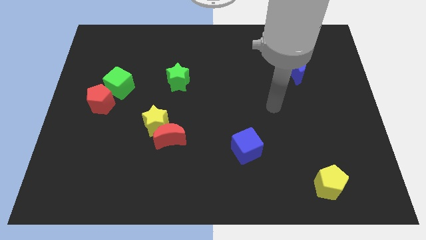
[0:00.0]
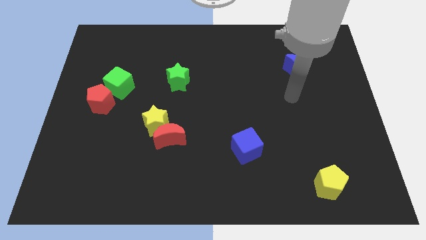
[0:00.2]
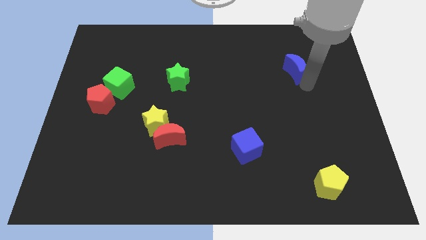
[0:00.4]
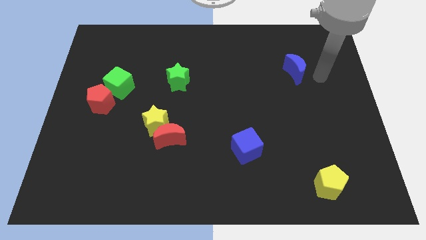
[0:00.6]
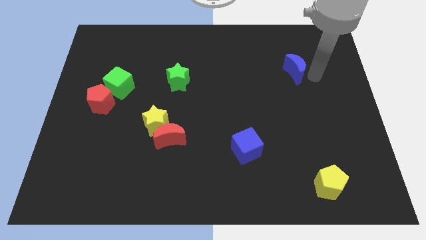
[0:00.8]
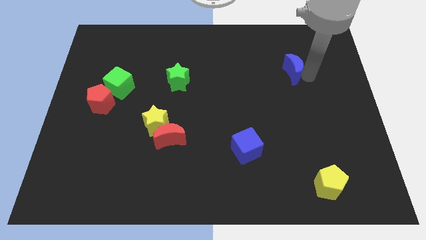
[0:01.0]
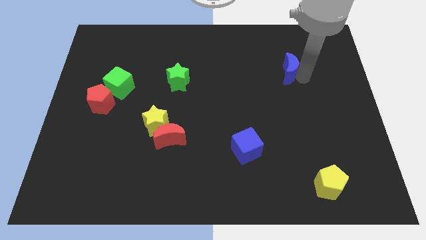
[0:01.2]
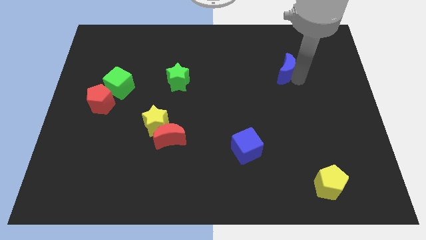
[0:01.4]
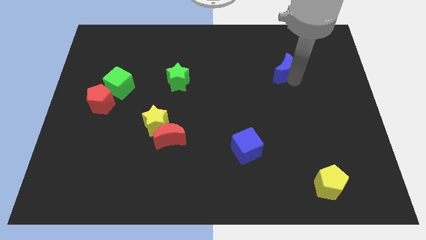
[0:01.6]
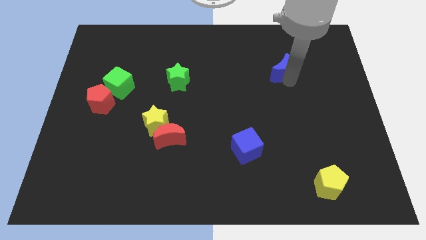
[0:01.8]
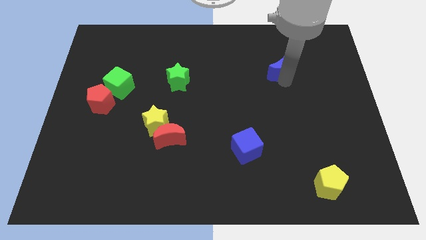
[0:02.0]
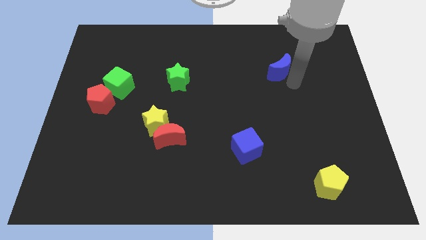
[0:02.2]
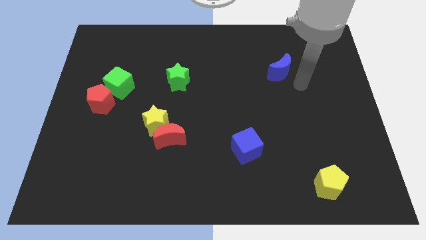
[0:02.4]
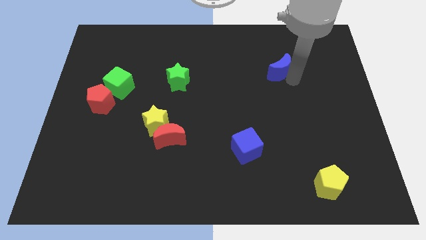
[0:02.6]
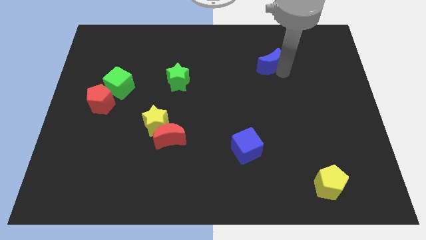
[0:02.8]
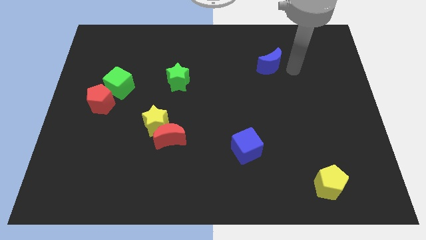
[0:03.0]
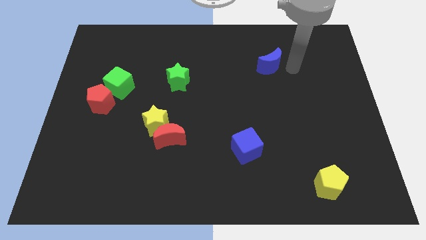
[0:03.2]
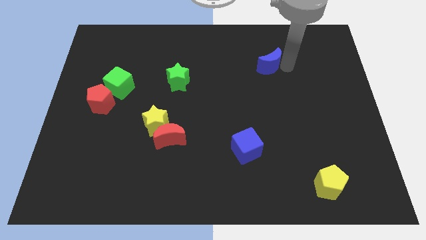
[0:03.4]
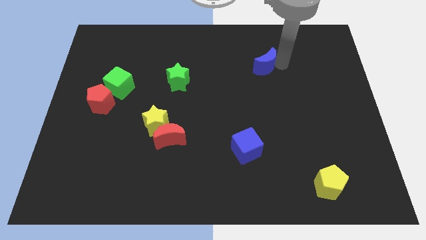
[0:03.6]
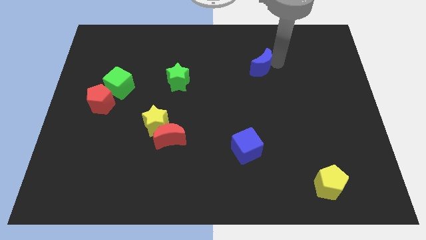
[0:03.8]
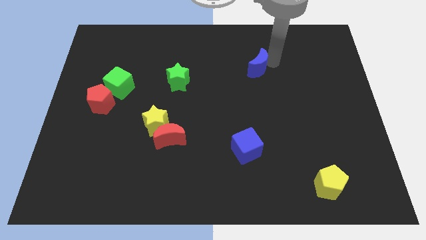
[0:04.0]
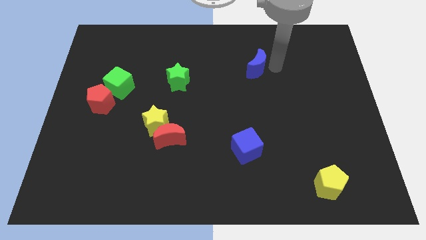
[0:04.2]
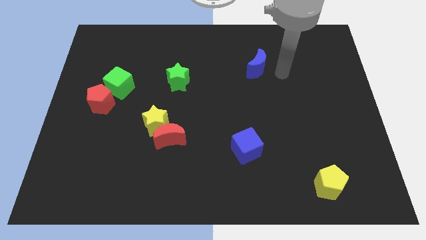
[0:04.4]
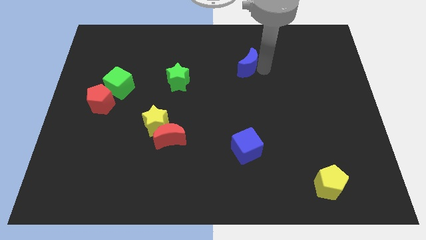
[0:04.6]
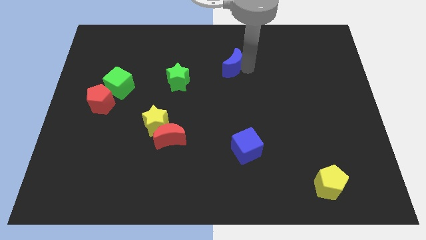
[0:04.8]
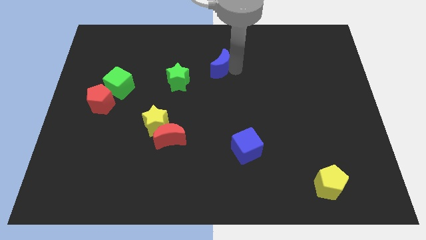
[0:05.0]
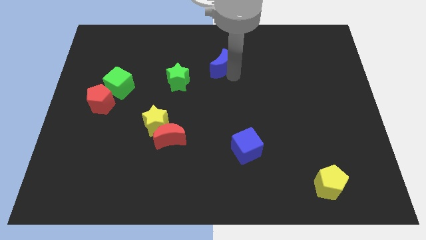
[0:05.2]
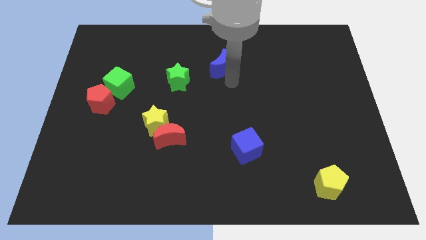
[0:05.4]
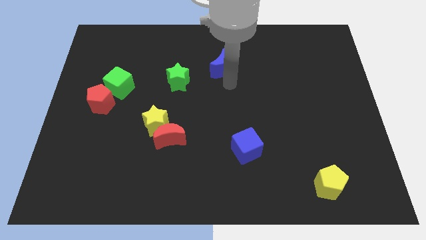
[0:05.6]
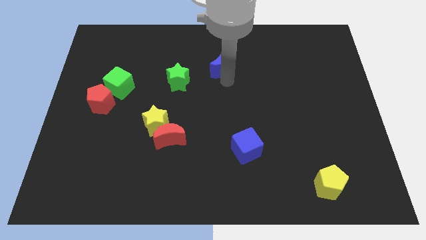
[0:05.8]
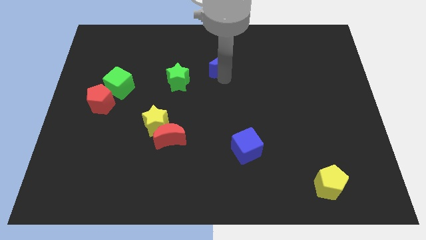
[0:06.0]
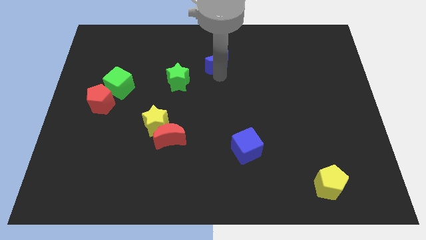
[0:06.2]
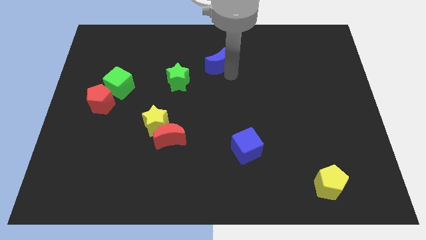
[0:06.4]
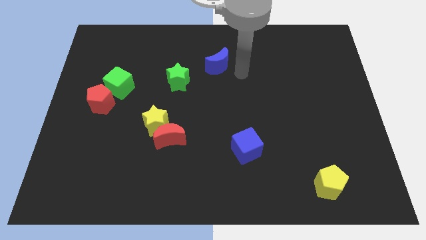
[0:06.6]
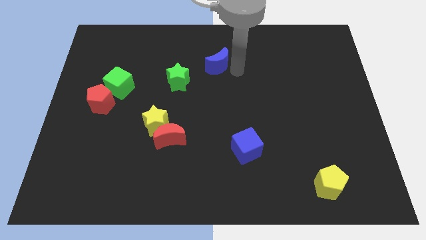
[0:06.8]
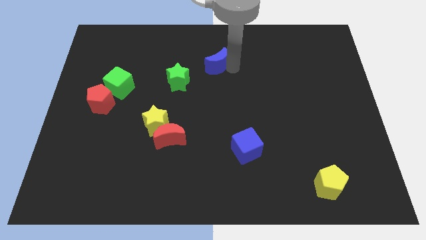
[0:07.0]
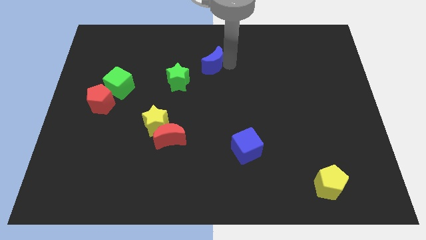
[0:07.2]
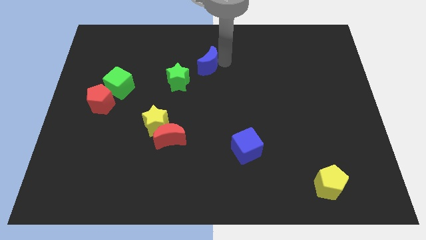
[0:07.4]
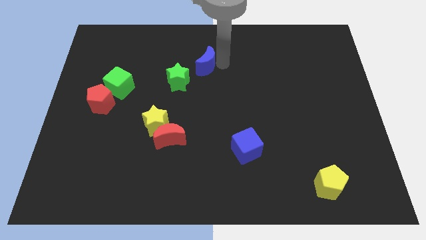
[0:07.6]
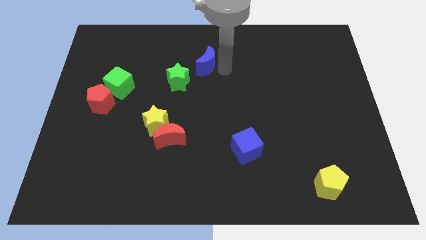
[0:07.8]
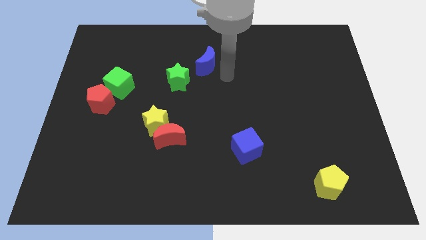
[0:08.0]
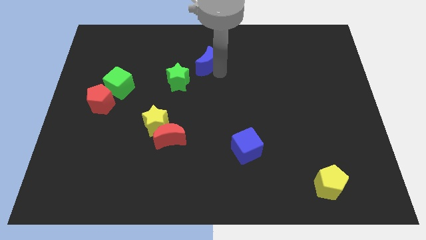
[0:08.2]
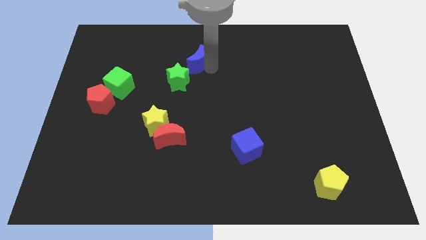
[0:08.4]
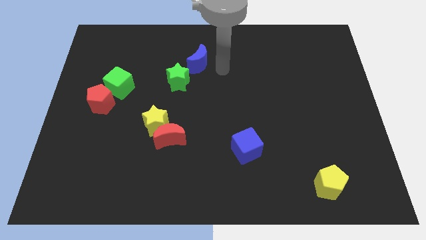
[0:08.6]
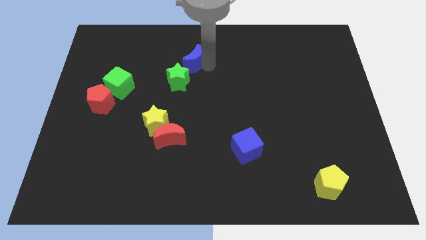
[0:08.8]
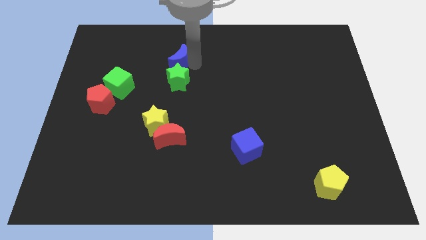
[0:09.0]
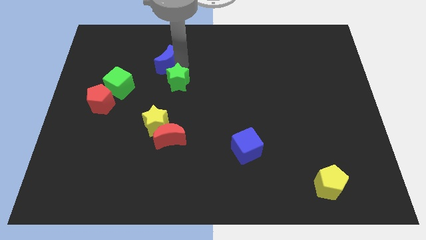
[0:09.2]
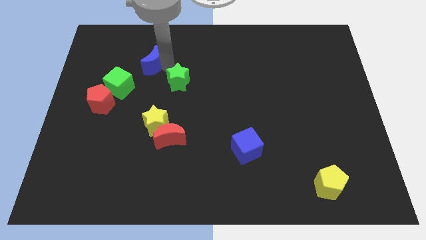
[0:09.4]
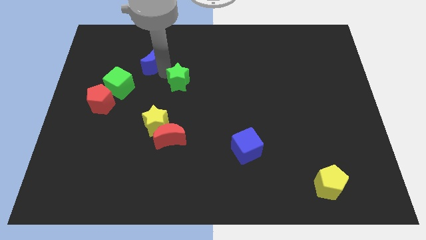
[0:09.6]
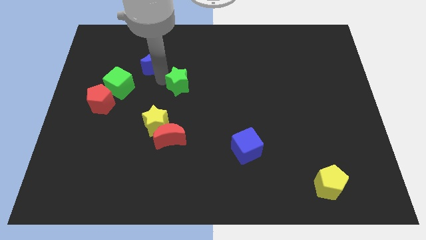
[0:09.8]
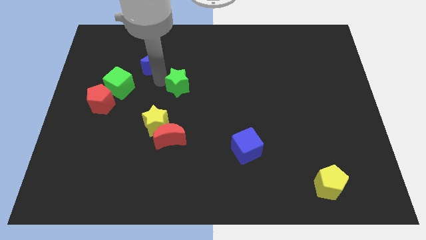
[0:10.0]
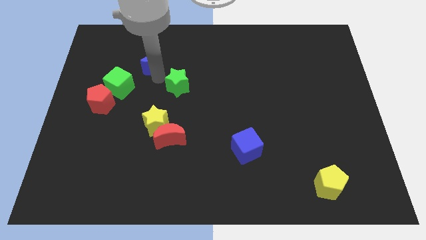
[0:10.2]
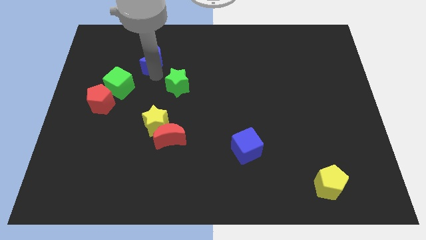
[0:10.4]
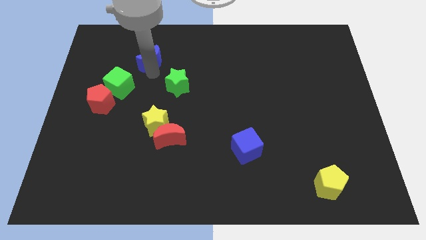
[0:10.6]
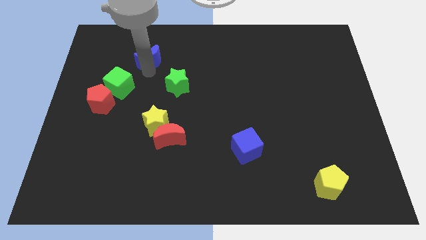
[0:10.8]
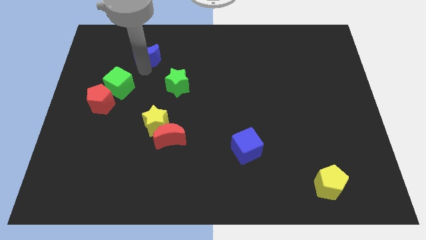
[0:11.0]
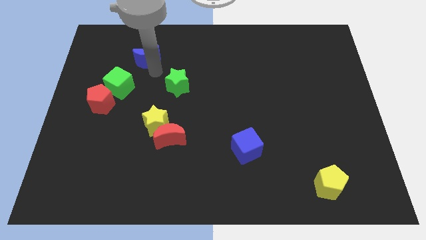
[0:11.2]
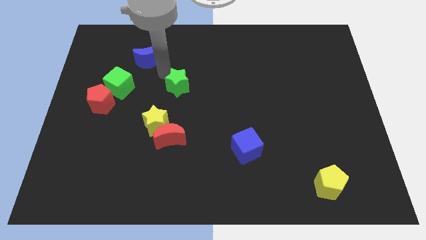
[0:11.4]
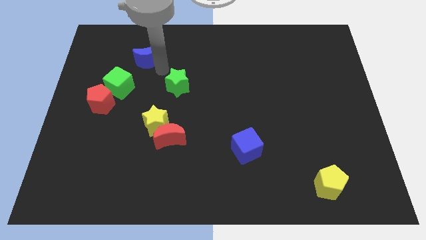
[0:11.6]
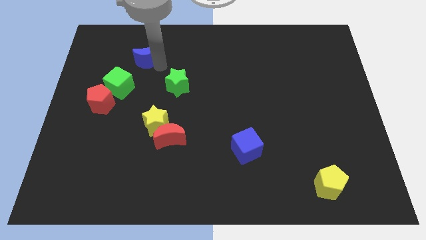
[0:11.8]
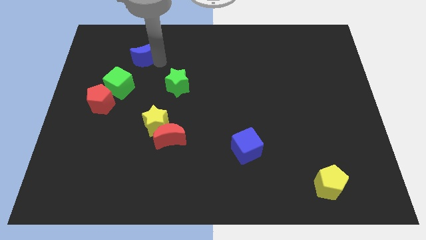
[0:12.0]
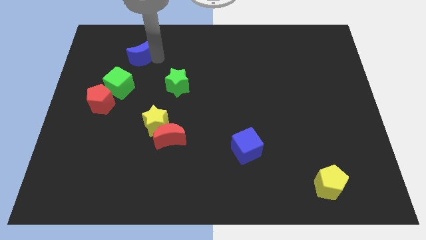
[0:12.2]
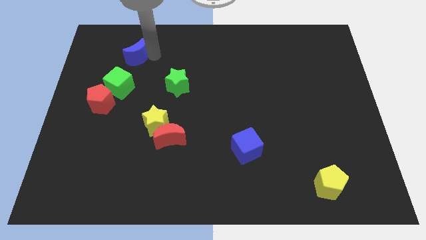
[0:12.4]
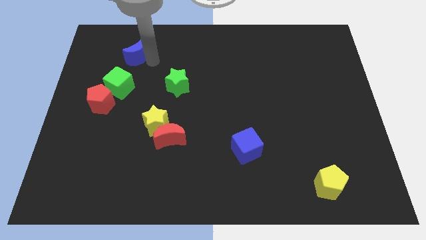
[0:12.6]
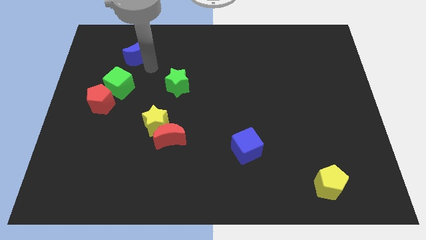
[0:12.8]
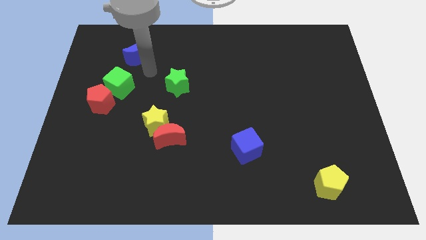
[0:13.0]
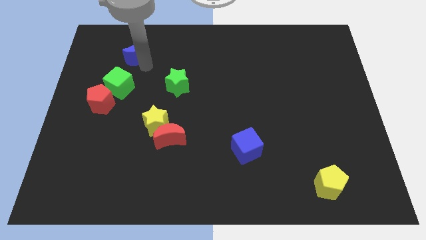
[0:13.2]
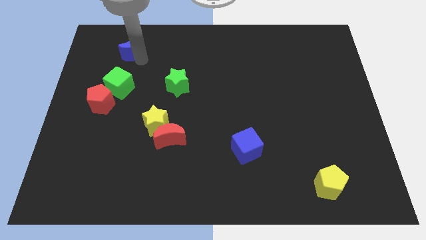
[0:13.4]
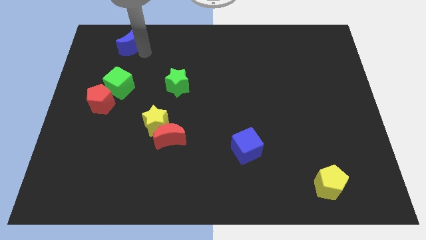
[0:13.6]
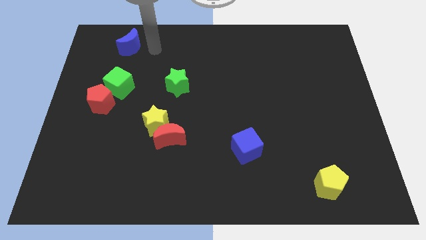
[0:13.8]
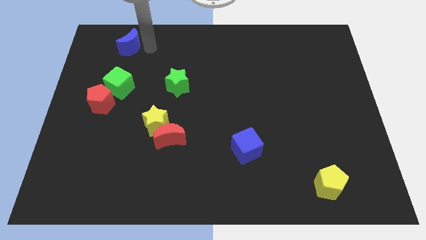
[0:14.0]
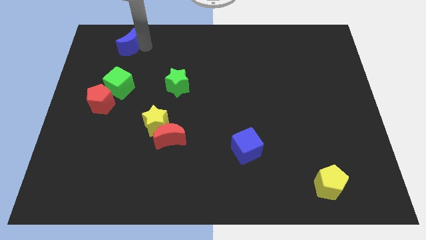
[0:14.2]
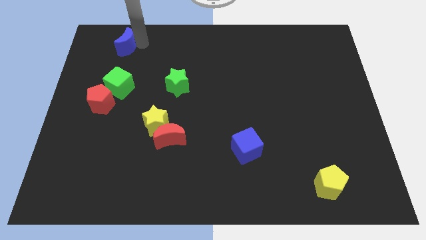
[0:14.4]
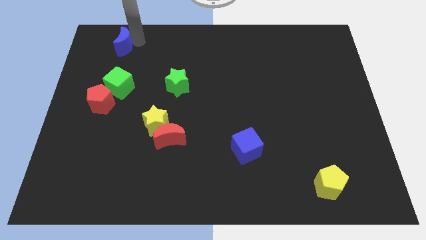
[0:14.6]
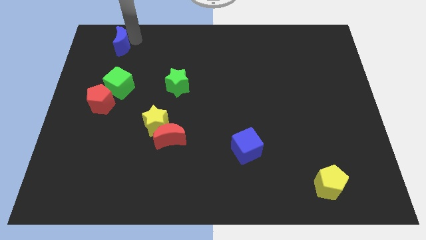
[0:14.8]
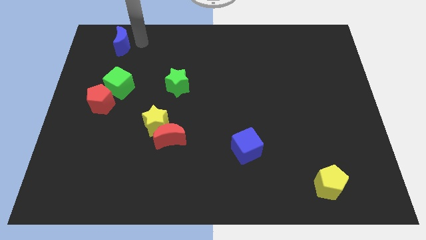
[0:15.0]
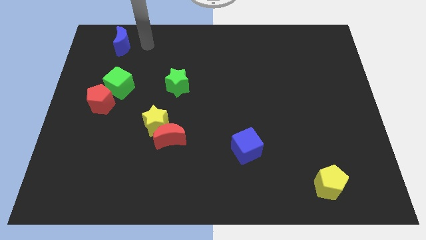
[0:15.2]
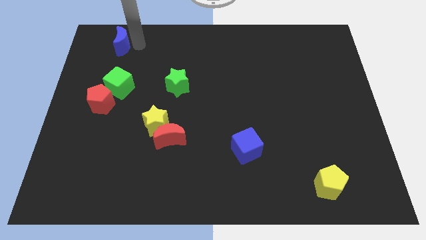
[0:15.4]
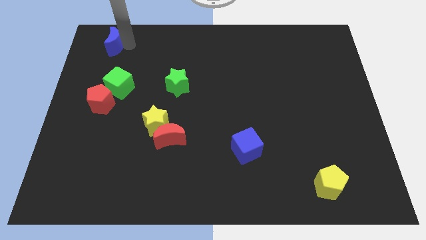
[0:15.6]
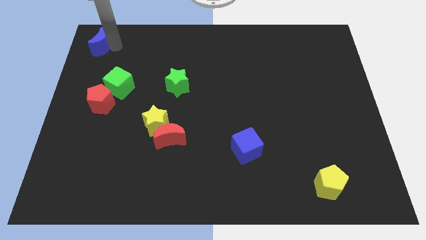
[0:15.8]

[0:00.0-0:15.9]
move the blue moon to the top left corner
